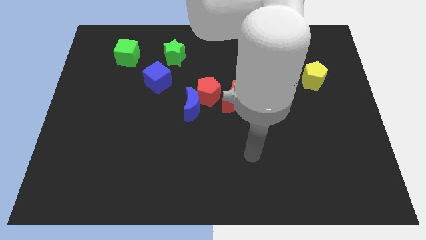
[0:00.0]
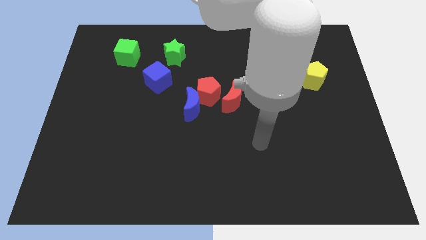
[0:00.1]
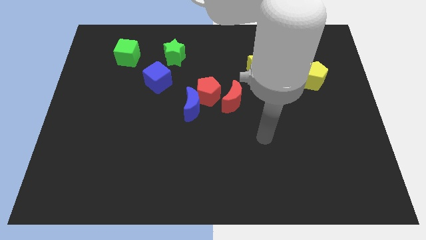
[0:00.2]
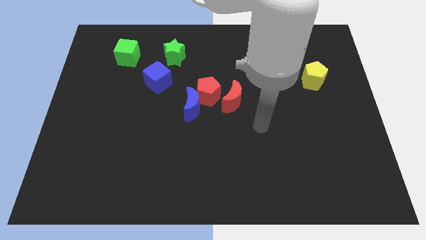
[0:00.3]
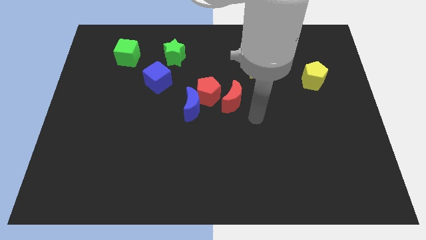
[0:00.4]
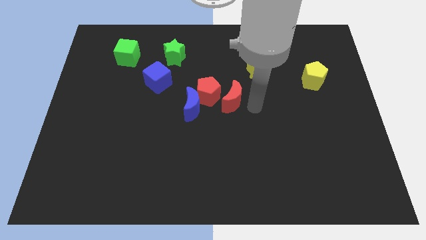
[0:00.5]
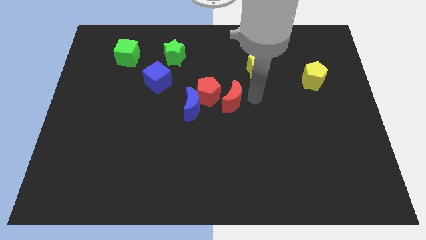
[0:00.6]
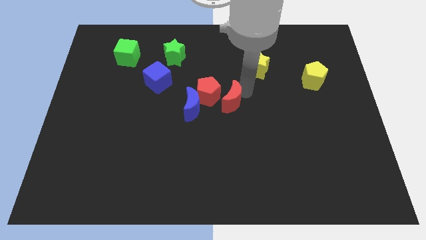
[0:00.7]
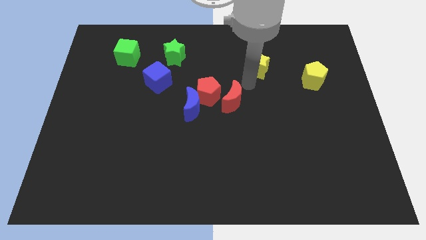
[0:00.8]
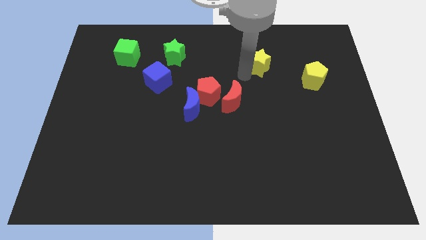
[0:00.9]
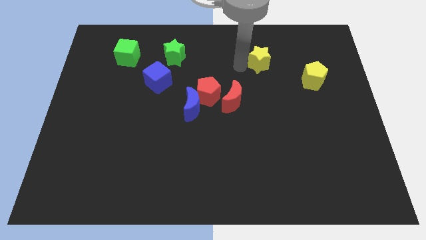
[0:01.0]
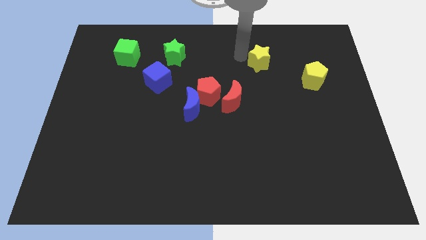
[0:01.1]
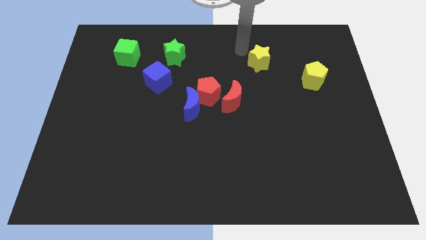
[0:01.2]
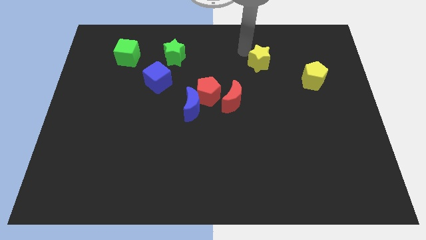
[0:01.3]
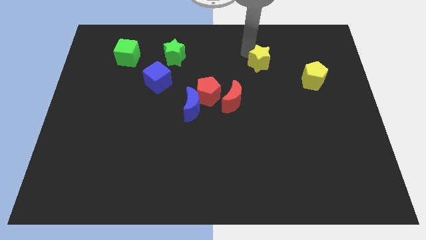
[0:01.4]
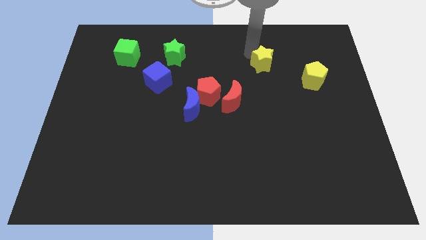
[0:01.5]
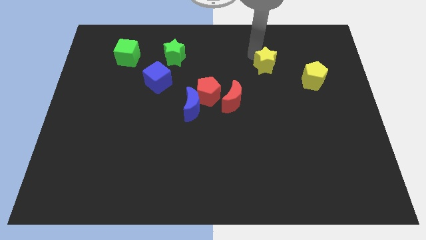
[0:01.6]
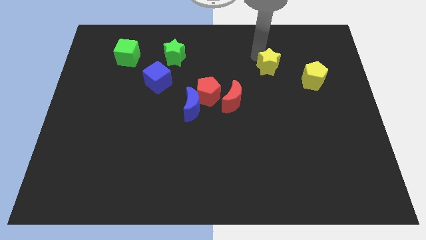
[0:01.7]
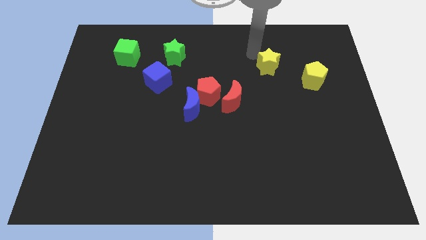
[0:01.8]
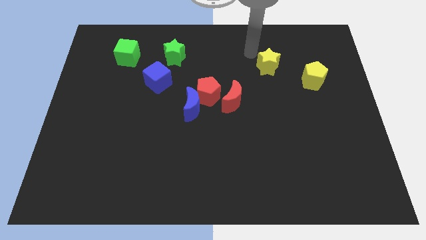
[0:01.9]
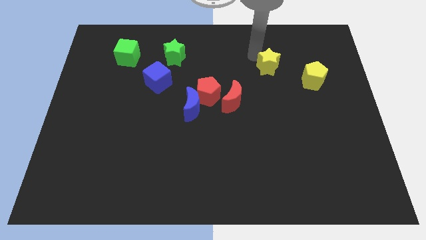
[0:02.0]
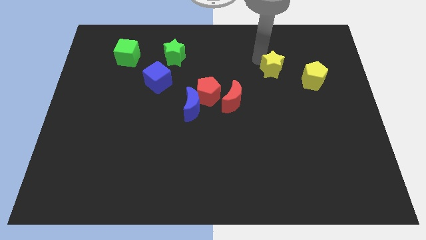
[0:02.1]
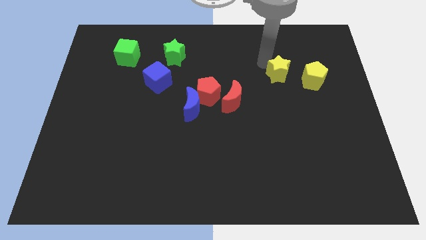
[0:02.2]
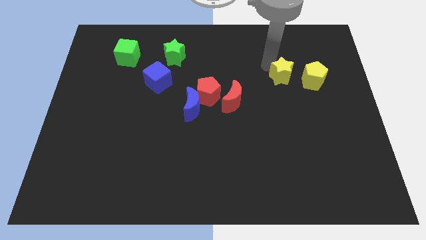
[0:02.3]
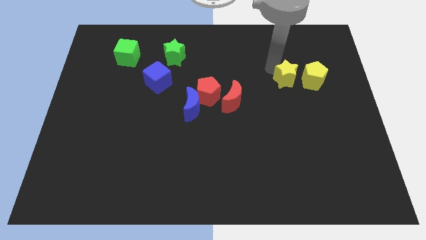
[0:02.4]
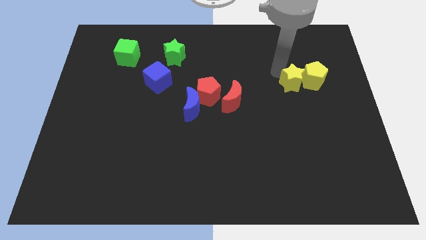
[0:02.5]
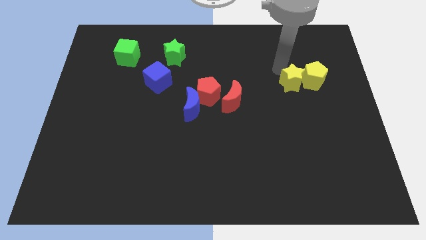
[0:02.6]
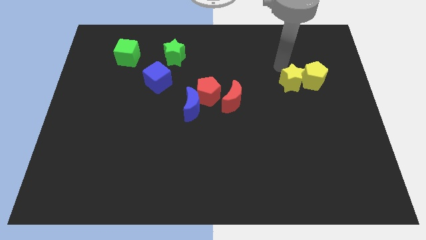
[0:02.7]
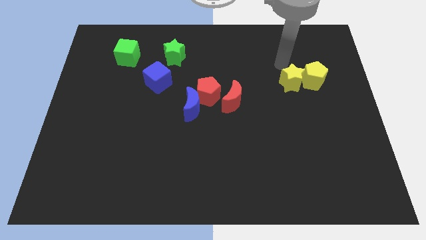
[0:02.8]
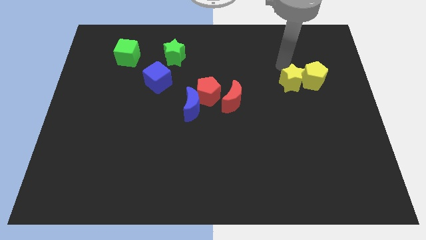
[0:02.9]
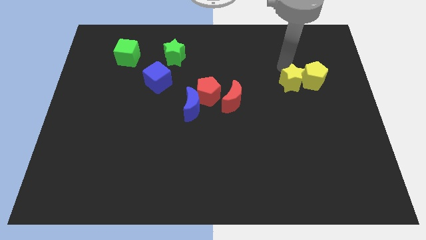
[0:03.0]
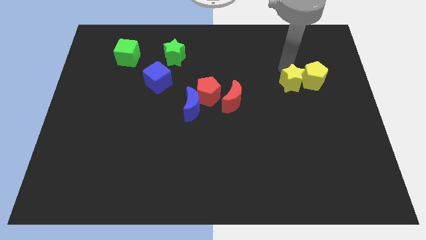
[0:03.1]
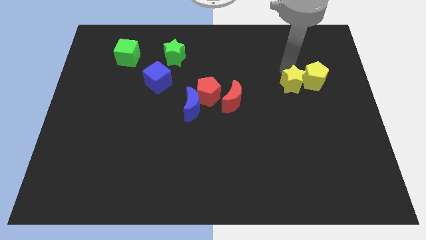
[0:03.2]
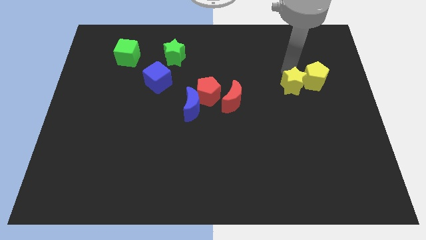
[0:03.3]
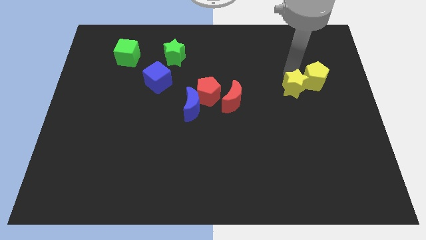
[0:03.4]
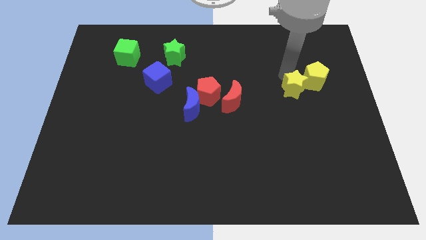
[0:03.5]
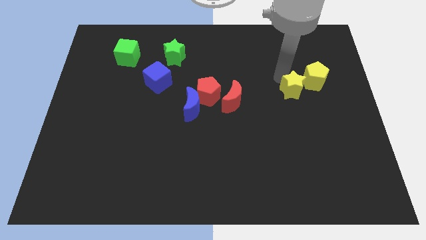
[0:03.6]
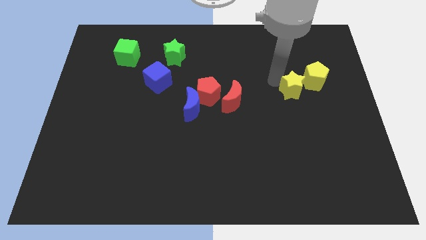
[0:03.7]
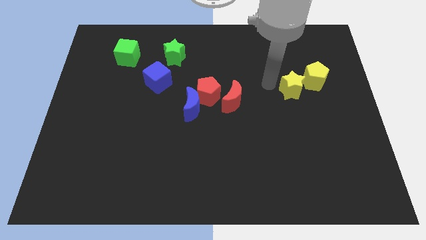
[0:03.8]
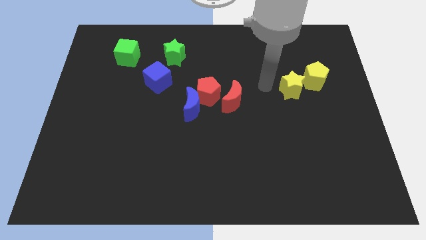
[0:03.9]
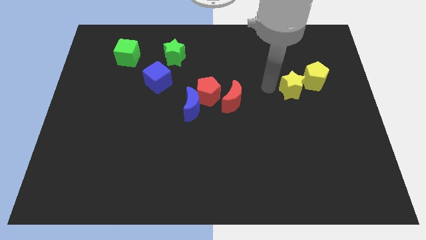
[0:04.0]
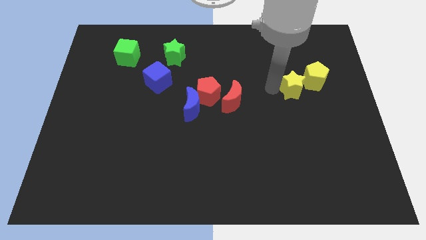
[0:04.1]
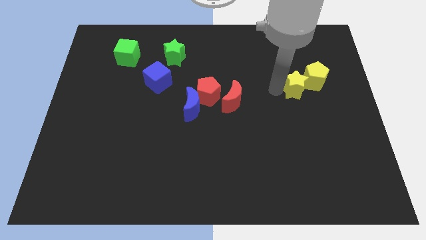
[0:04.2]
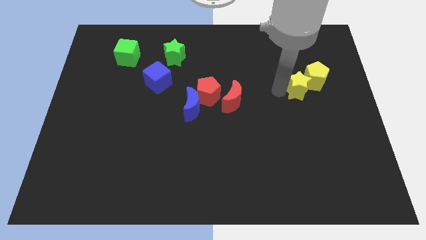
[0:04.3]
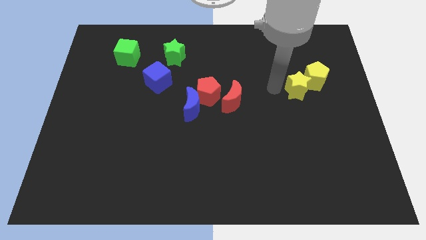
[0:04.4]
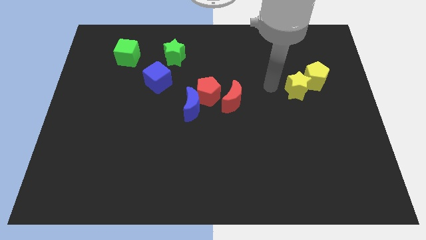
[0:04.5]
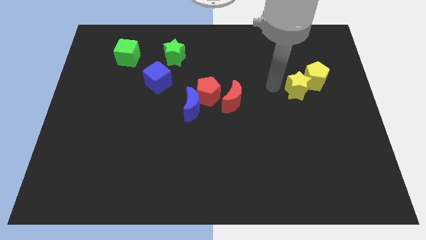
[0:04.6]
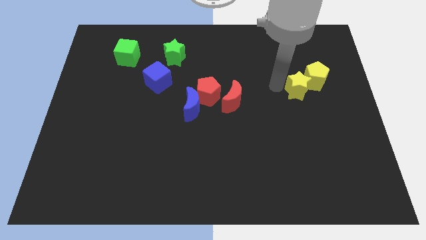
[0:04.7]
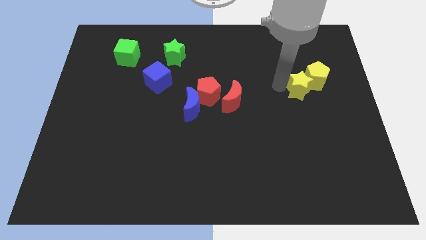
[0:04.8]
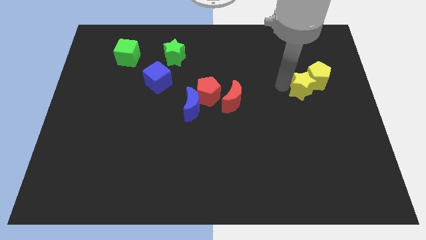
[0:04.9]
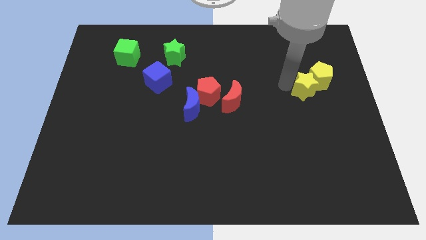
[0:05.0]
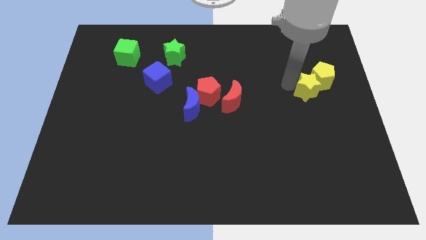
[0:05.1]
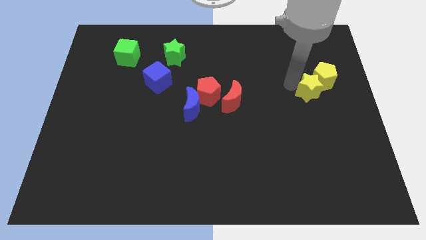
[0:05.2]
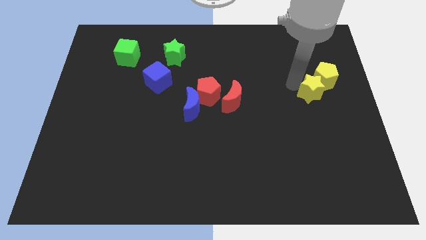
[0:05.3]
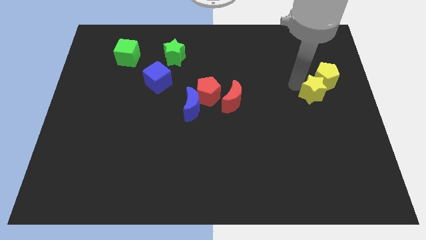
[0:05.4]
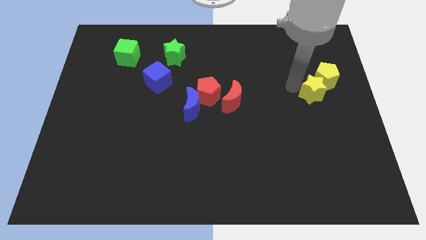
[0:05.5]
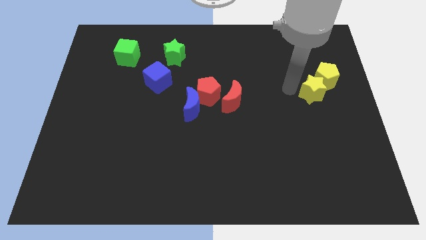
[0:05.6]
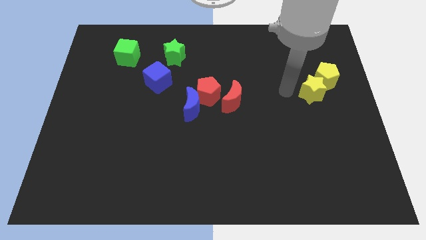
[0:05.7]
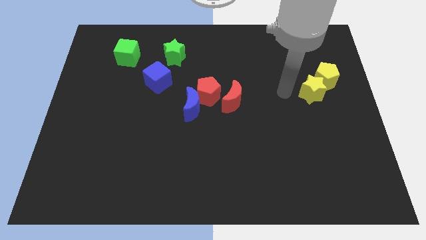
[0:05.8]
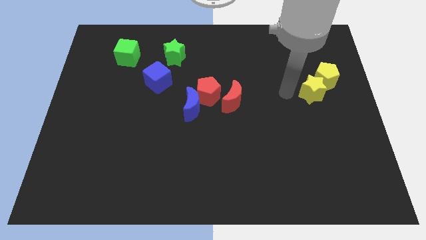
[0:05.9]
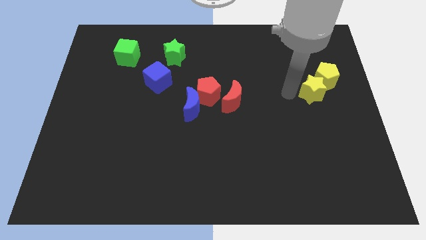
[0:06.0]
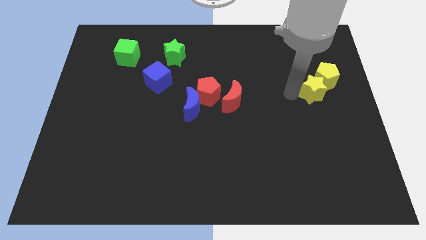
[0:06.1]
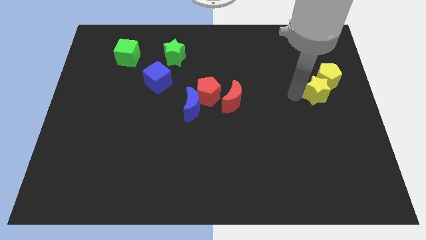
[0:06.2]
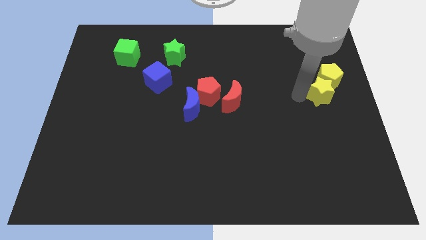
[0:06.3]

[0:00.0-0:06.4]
slide the yellow star to the right side
